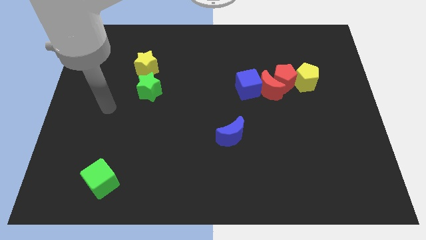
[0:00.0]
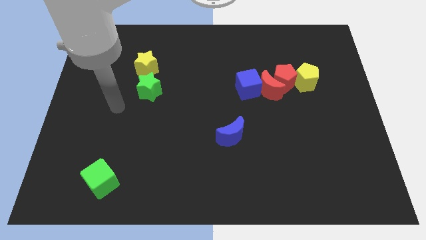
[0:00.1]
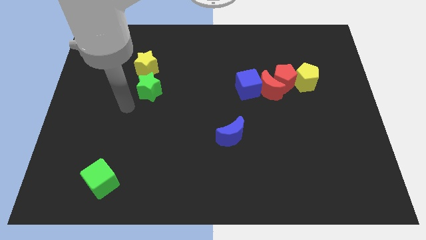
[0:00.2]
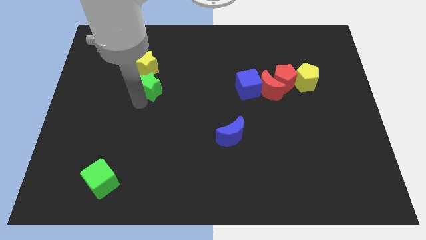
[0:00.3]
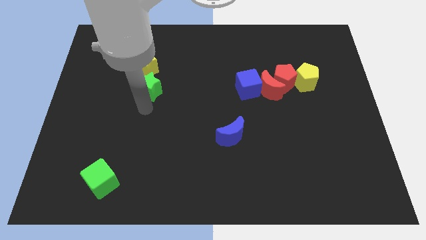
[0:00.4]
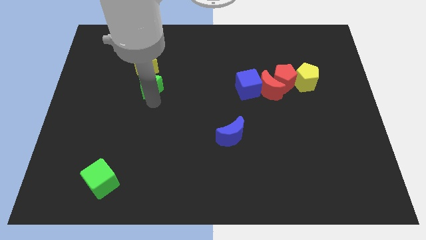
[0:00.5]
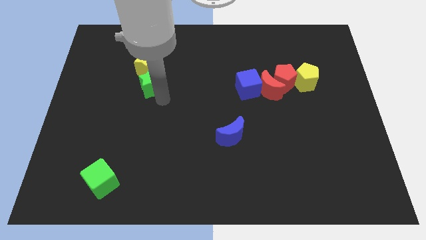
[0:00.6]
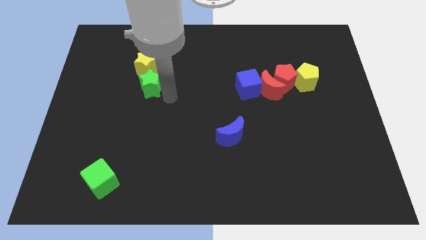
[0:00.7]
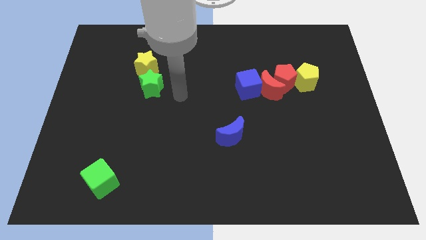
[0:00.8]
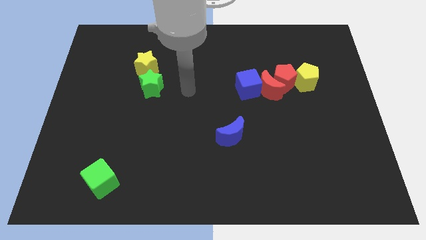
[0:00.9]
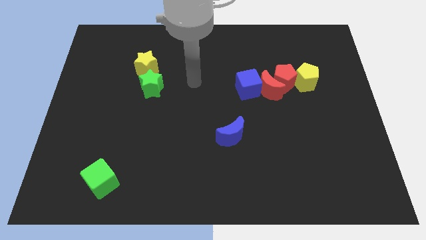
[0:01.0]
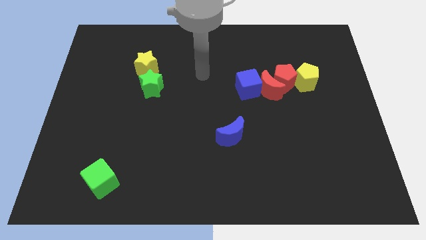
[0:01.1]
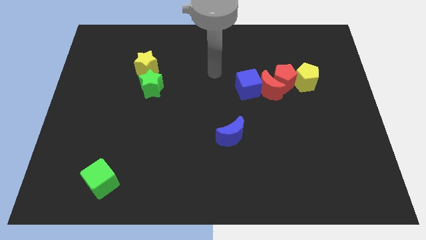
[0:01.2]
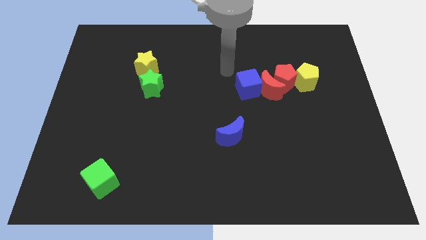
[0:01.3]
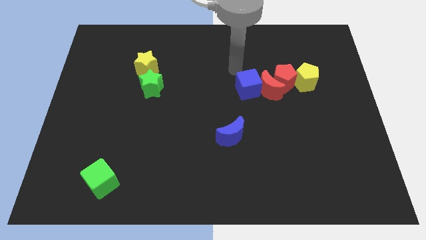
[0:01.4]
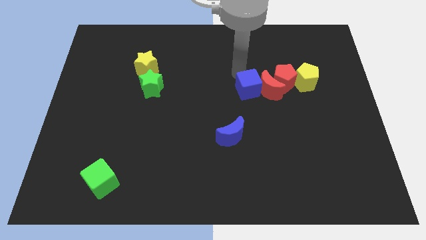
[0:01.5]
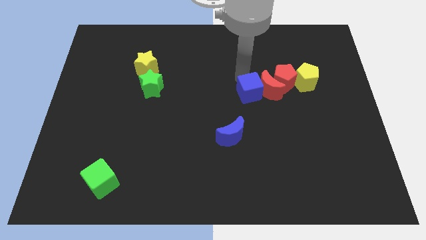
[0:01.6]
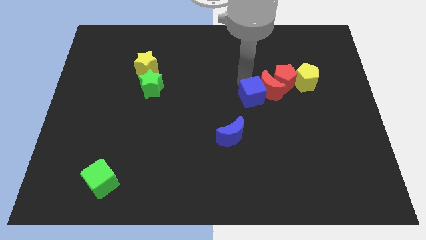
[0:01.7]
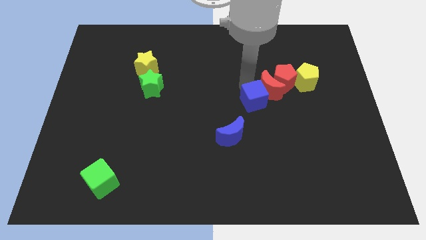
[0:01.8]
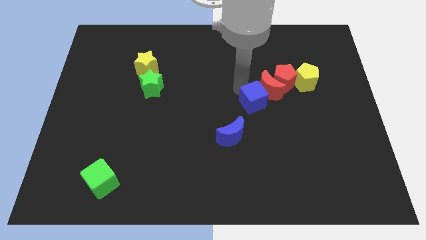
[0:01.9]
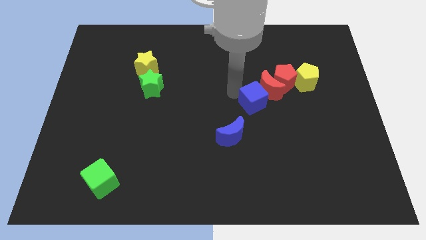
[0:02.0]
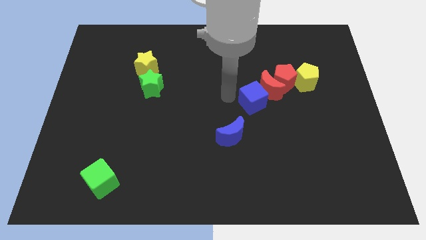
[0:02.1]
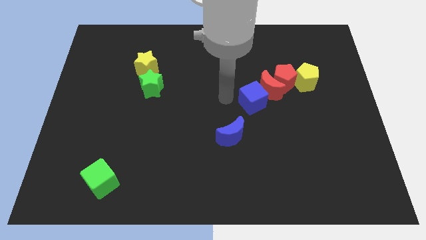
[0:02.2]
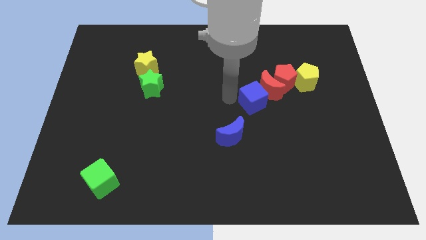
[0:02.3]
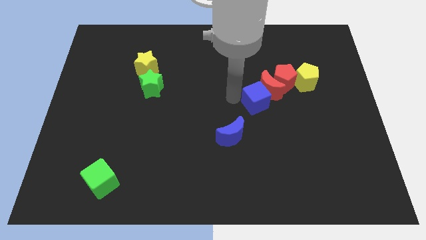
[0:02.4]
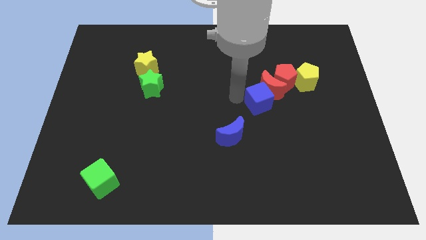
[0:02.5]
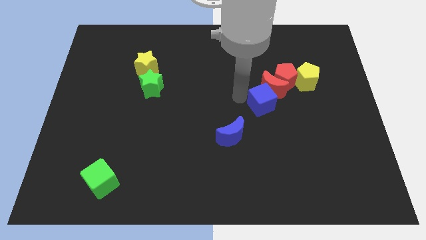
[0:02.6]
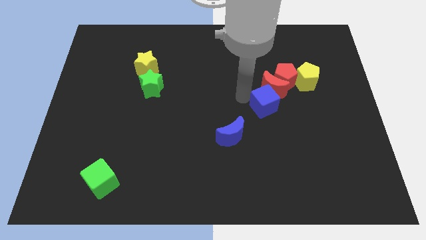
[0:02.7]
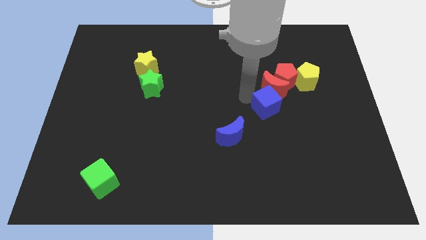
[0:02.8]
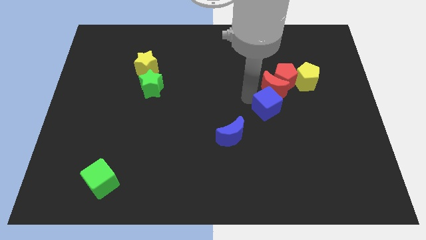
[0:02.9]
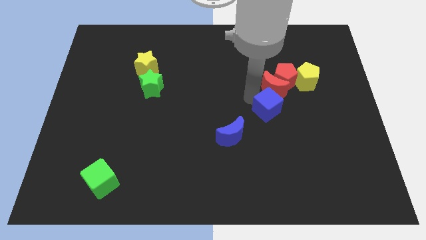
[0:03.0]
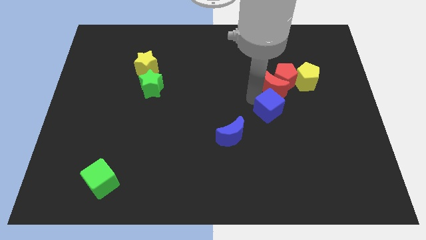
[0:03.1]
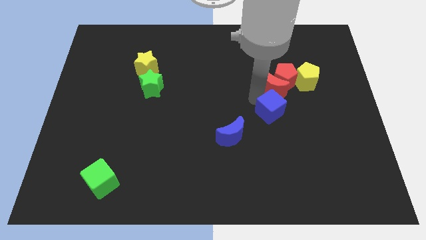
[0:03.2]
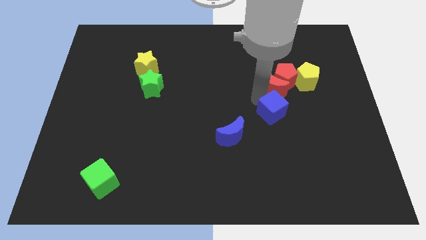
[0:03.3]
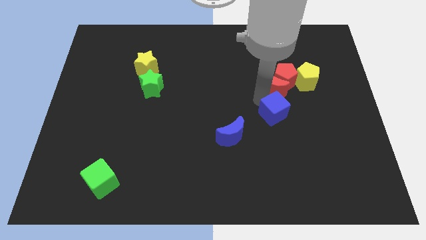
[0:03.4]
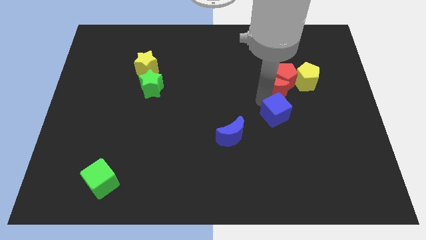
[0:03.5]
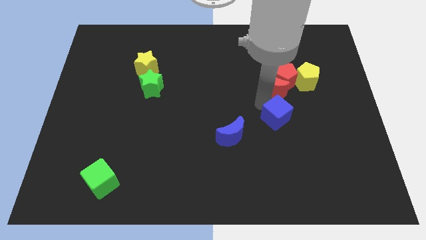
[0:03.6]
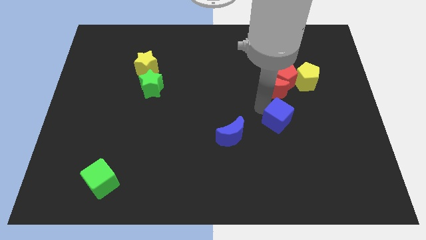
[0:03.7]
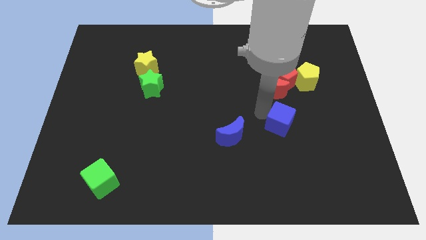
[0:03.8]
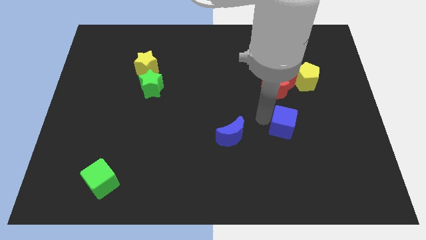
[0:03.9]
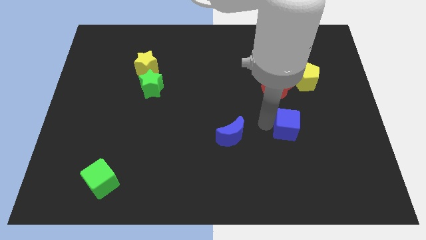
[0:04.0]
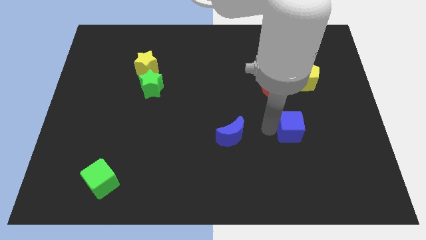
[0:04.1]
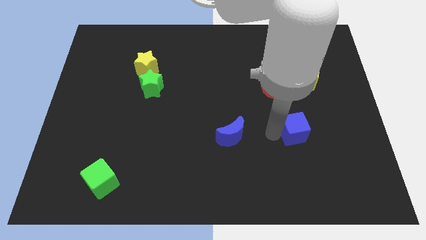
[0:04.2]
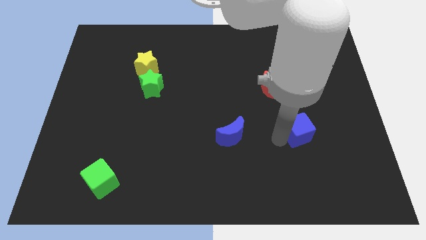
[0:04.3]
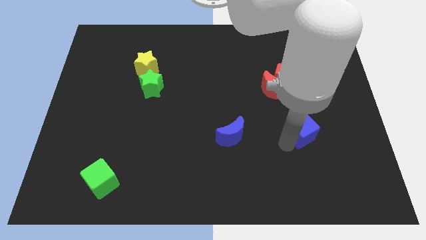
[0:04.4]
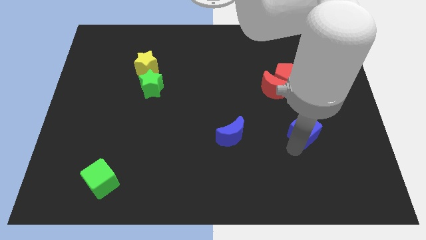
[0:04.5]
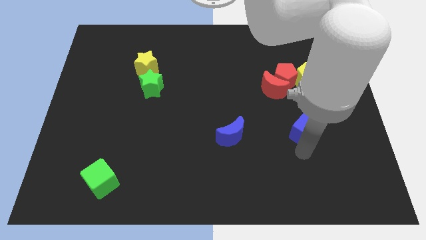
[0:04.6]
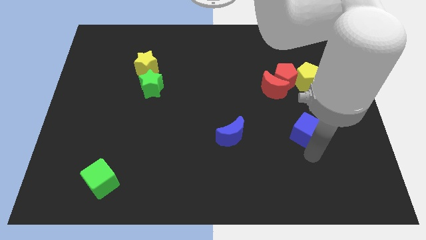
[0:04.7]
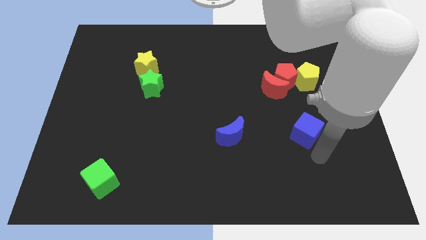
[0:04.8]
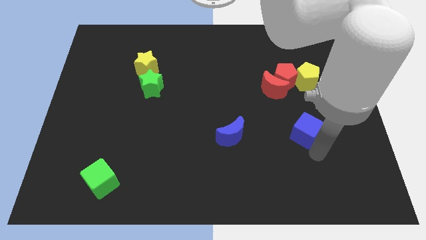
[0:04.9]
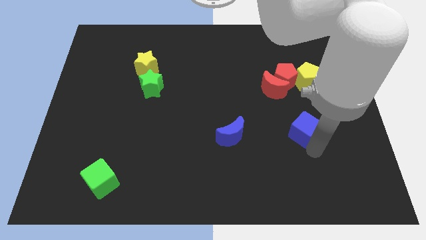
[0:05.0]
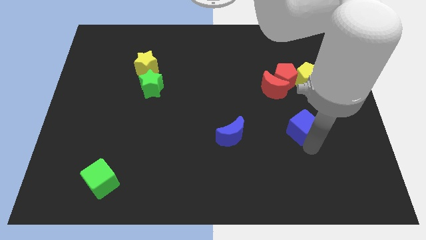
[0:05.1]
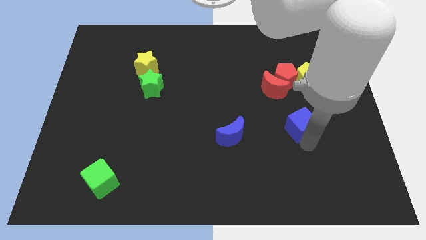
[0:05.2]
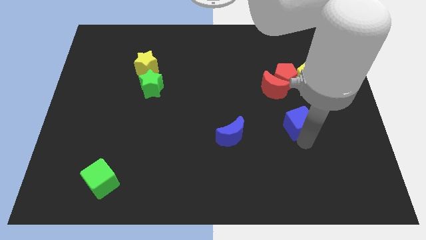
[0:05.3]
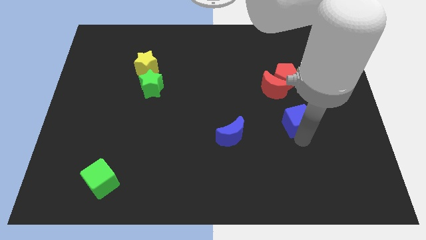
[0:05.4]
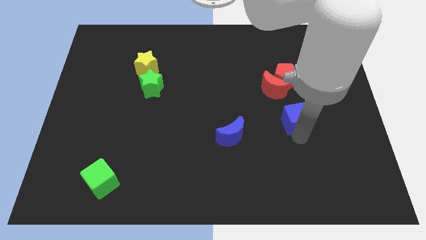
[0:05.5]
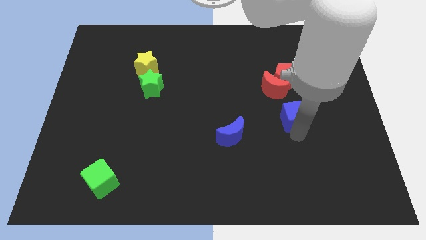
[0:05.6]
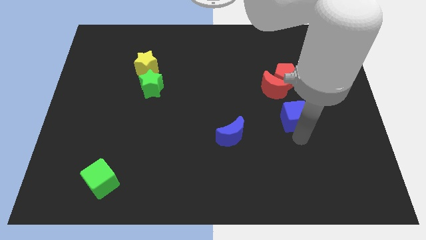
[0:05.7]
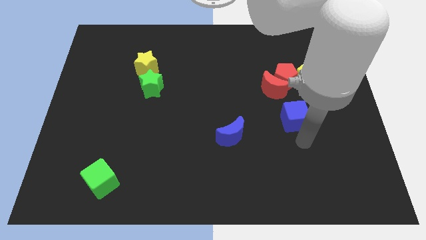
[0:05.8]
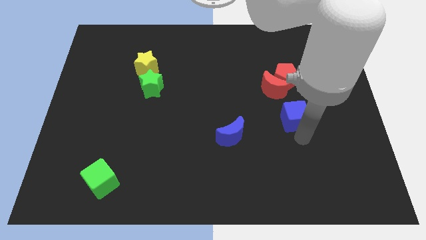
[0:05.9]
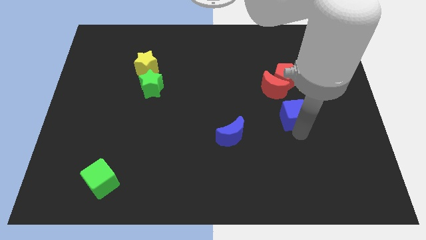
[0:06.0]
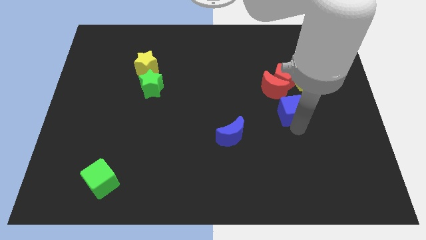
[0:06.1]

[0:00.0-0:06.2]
slide the blue cube somewhat right

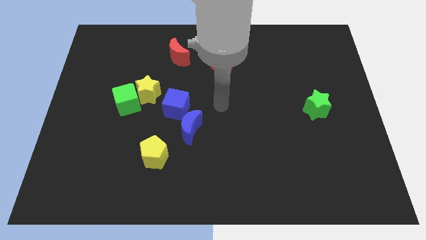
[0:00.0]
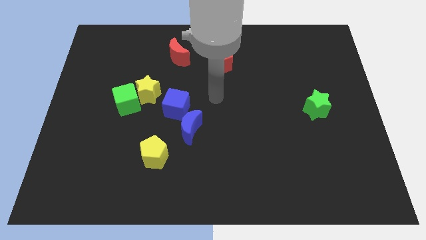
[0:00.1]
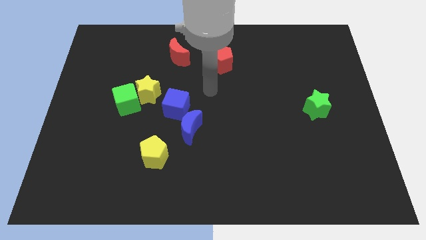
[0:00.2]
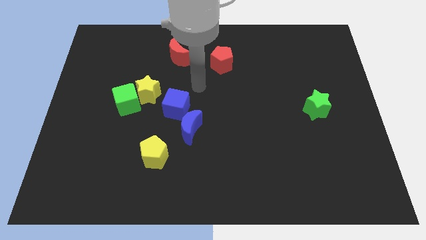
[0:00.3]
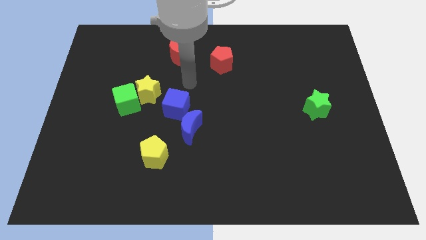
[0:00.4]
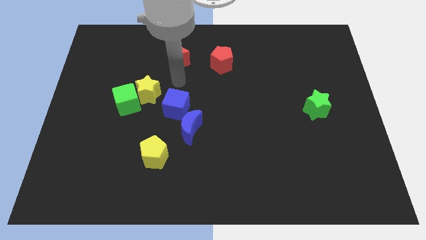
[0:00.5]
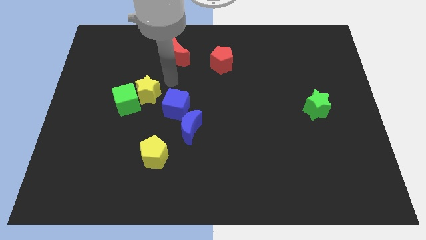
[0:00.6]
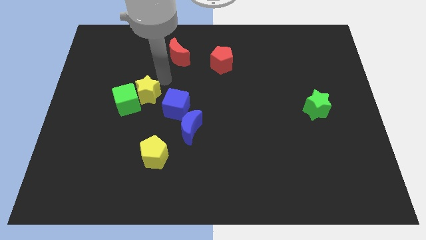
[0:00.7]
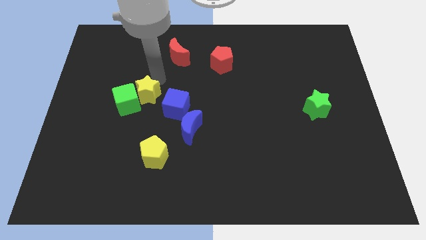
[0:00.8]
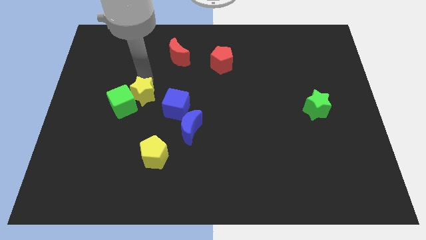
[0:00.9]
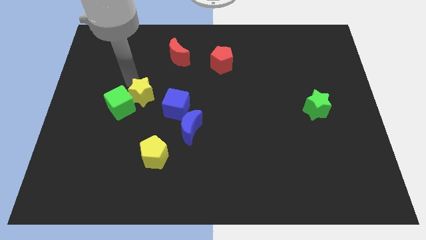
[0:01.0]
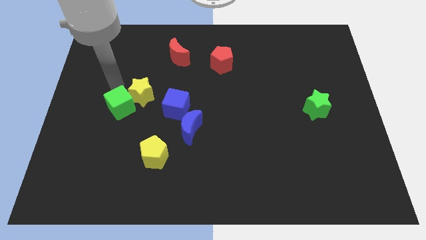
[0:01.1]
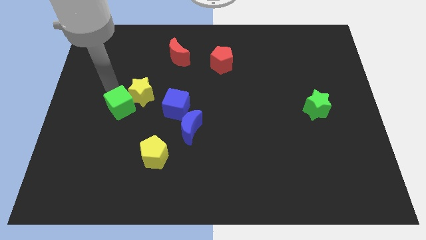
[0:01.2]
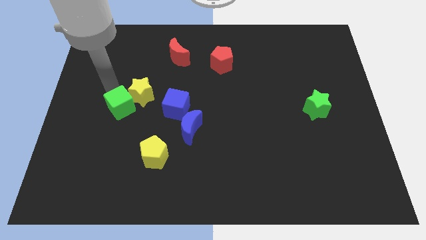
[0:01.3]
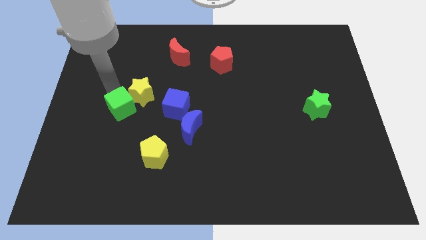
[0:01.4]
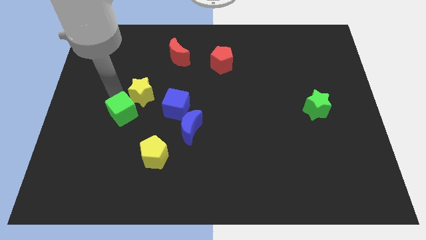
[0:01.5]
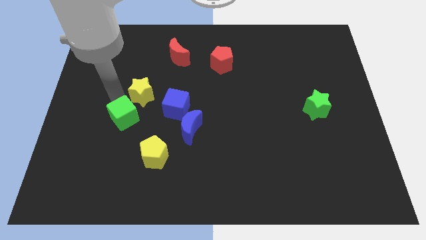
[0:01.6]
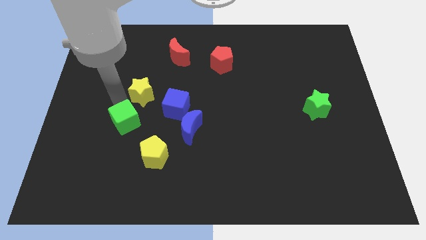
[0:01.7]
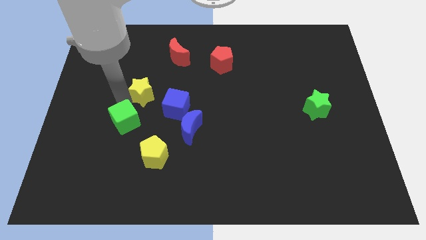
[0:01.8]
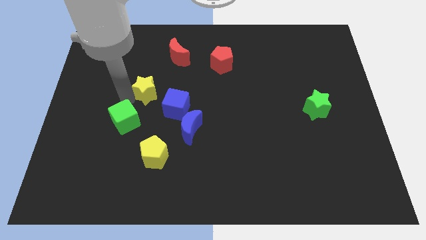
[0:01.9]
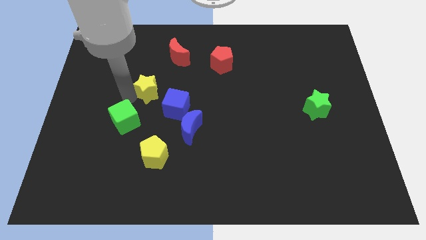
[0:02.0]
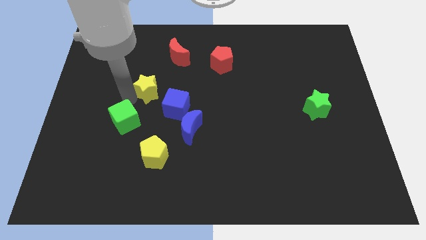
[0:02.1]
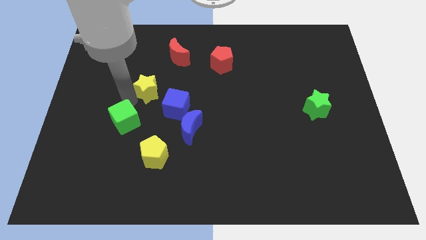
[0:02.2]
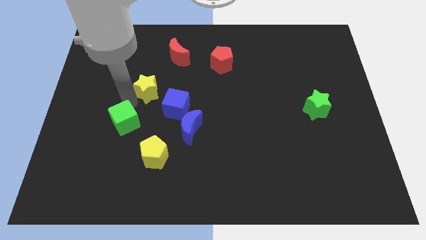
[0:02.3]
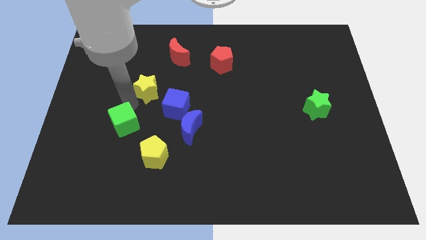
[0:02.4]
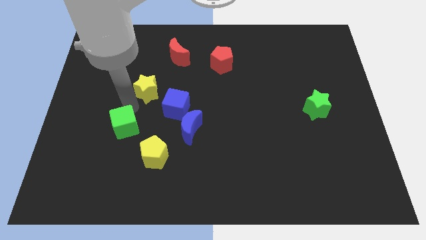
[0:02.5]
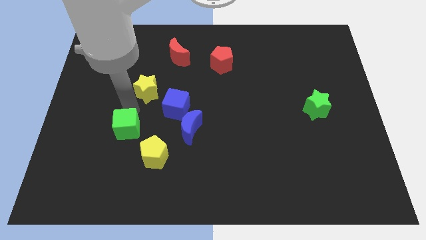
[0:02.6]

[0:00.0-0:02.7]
slide the green cube a little down
